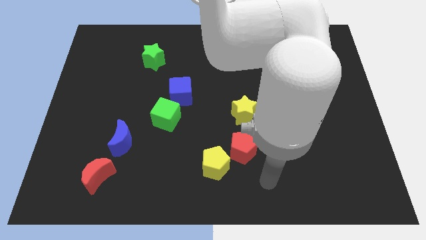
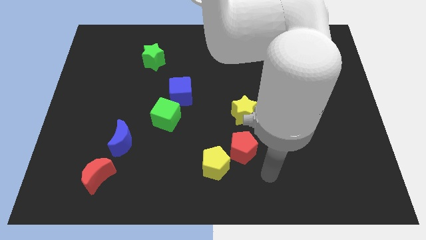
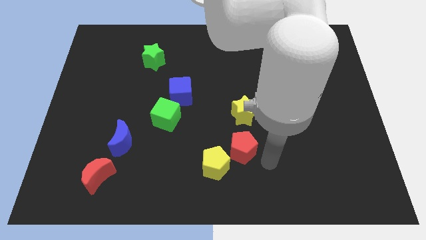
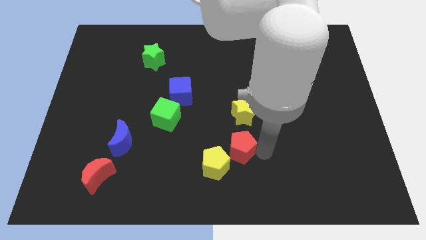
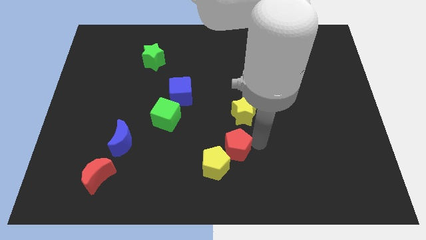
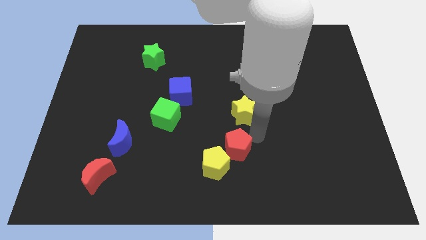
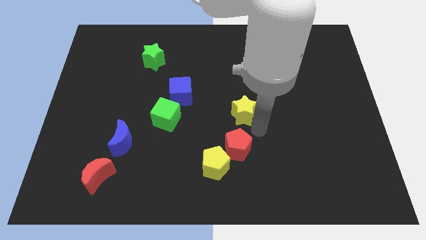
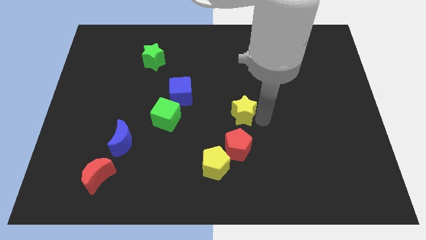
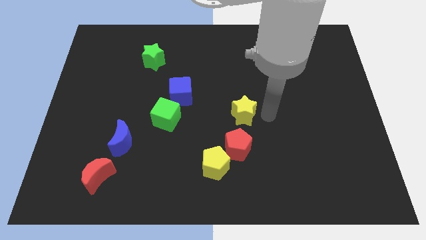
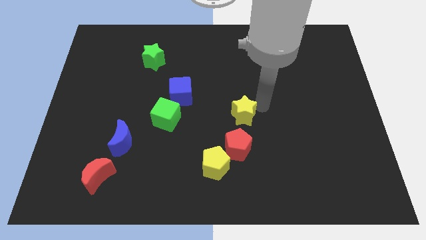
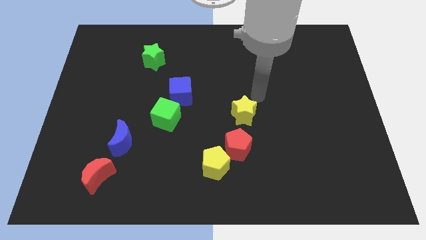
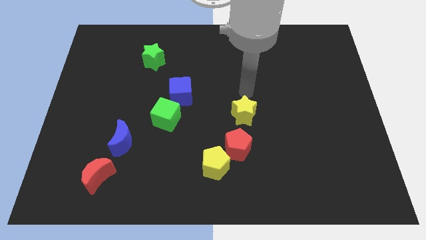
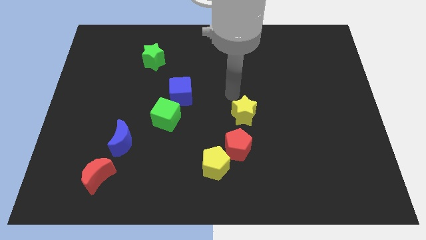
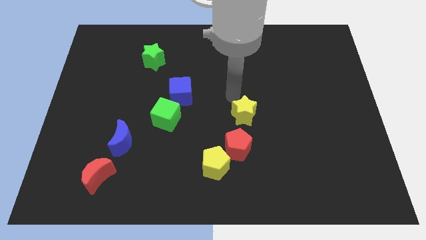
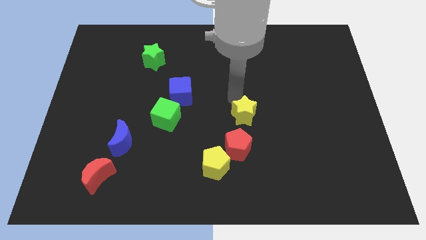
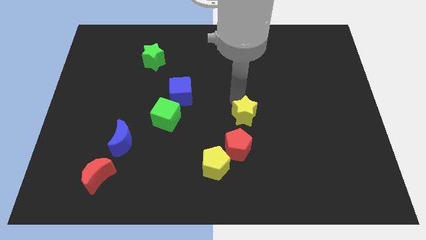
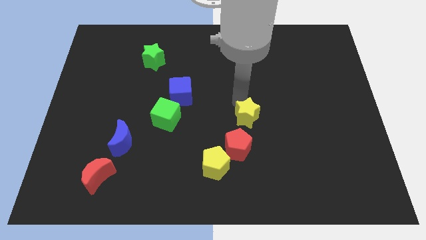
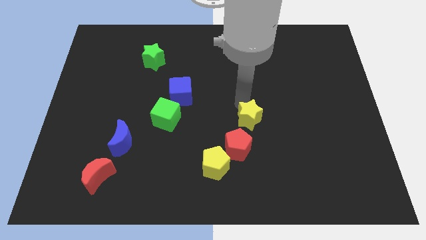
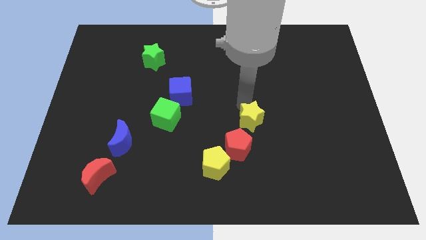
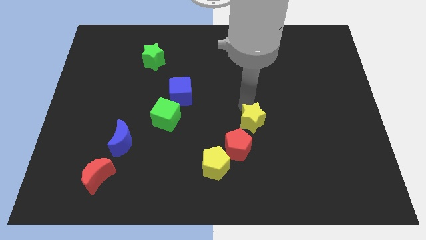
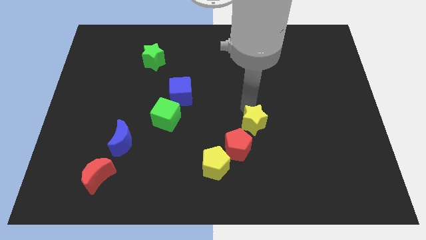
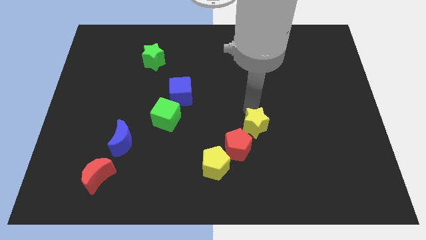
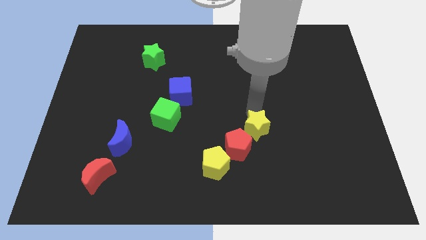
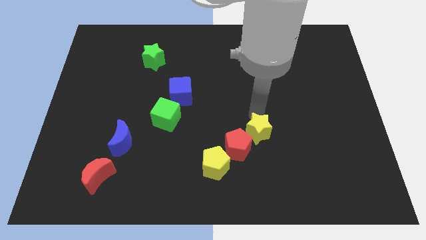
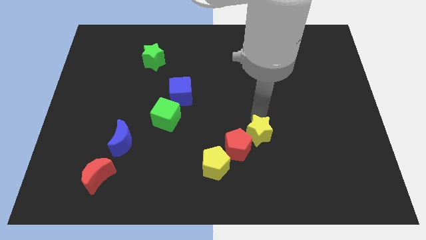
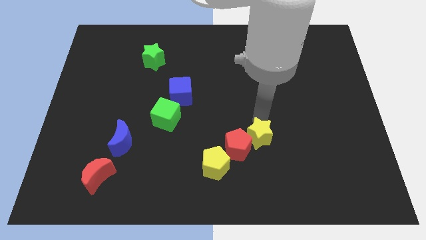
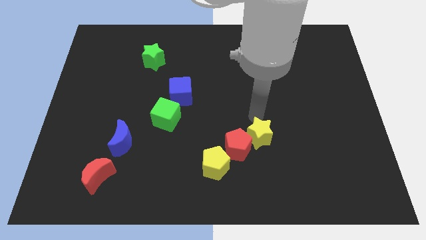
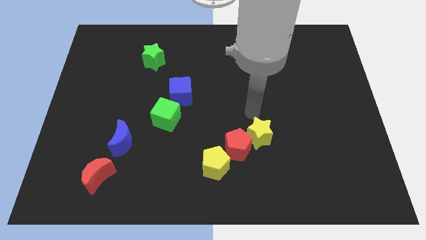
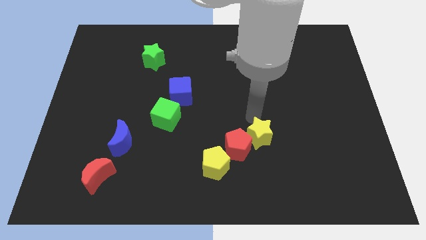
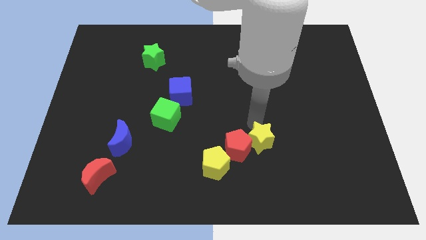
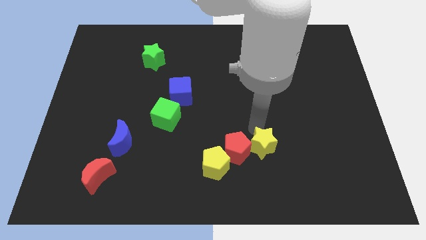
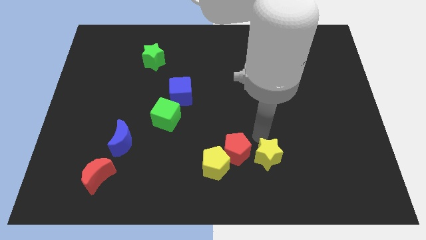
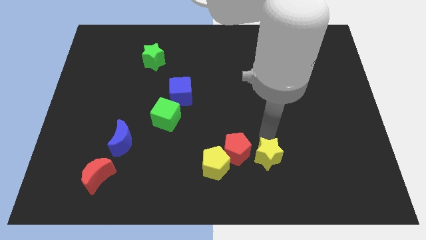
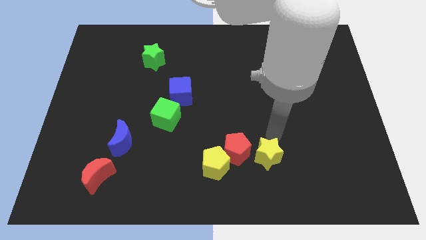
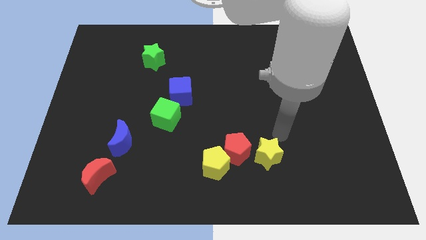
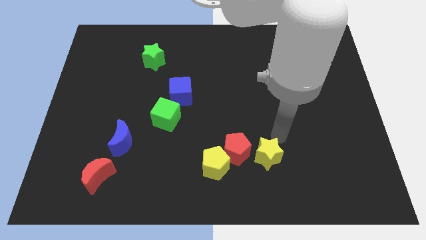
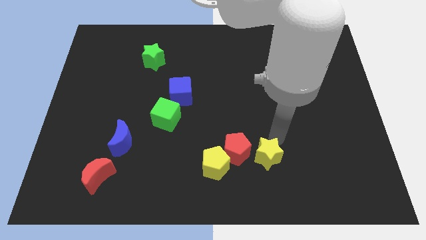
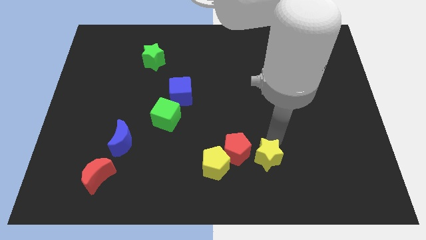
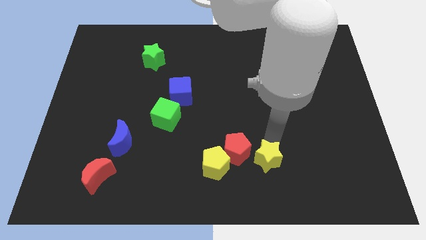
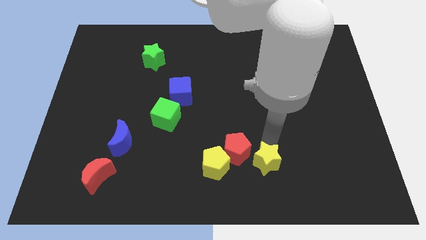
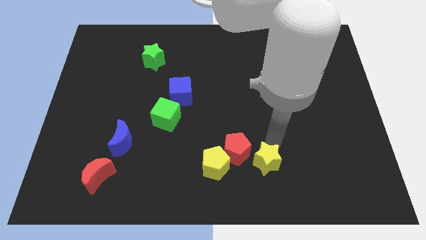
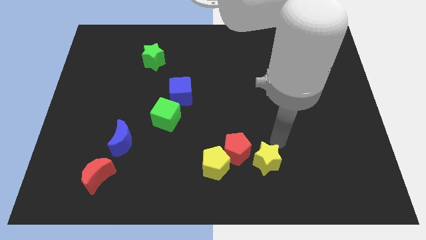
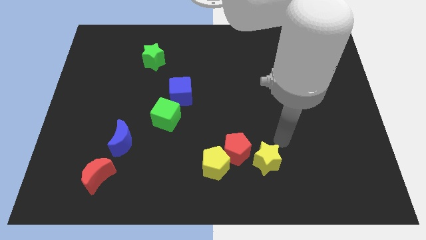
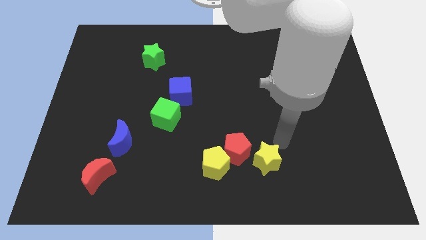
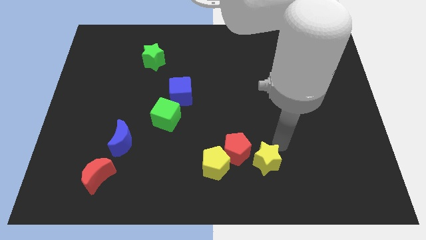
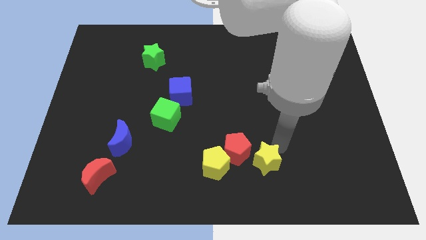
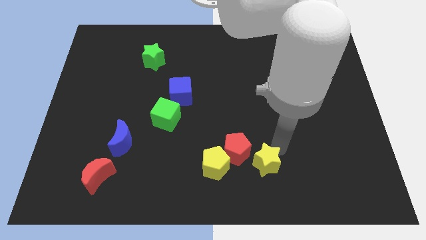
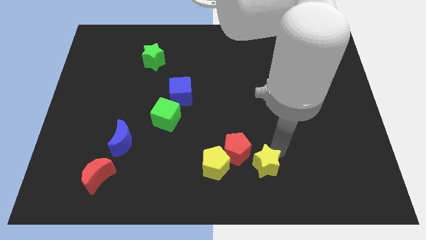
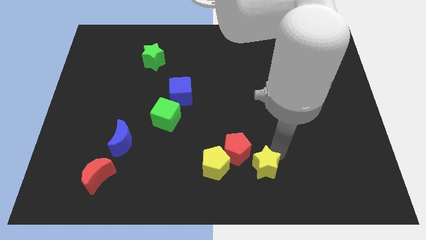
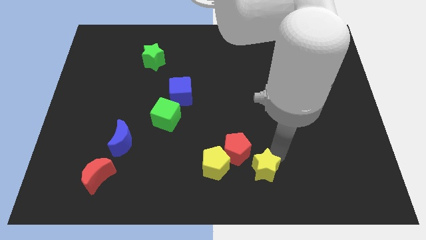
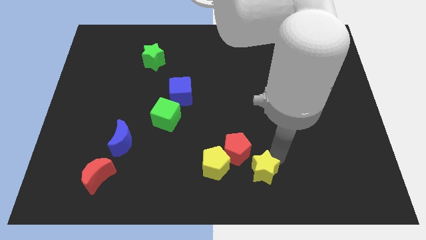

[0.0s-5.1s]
push the yellow star to the bottom

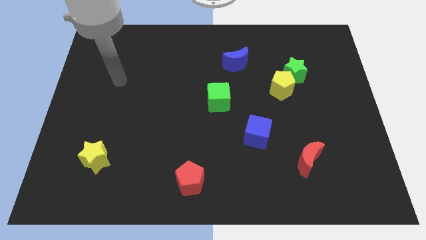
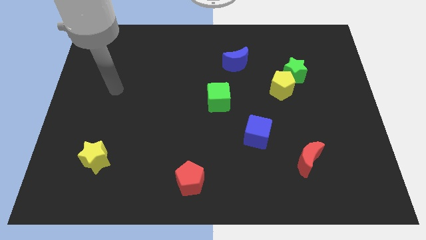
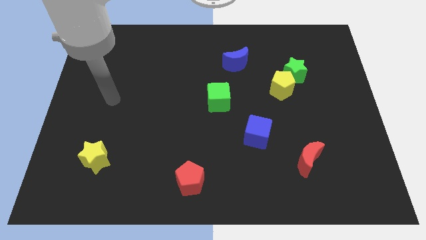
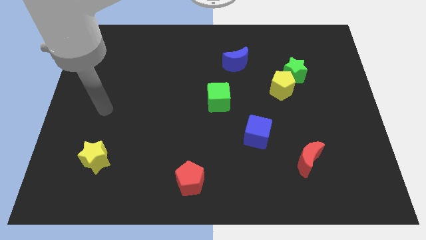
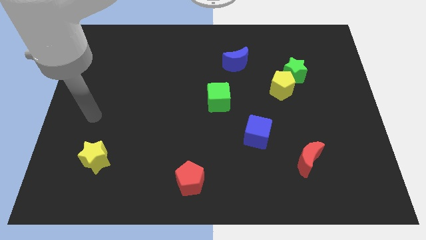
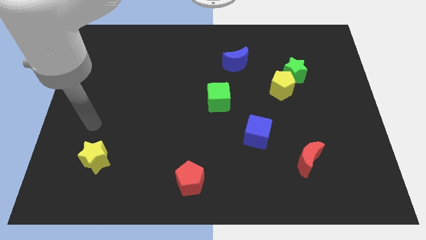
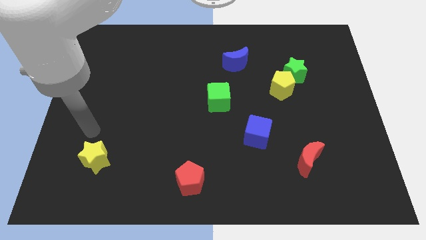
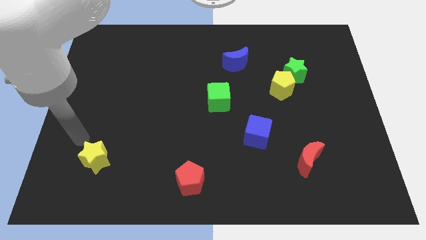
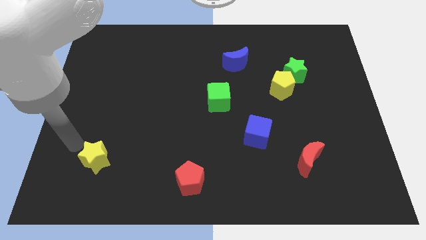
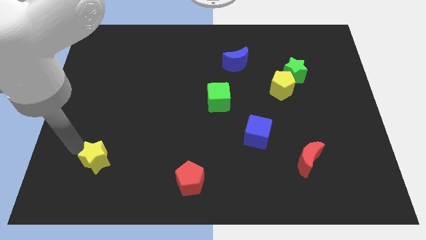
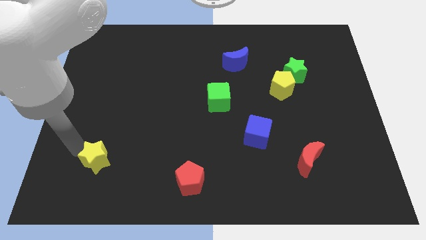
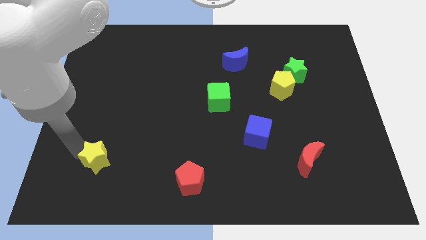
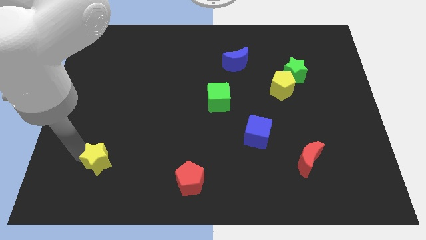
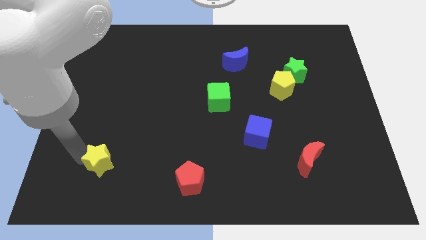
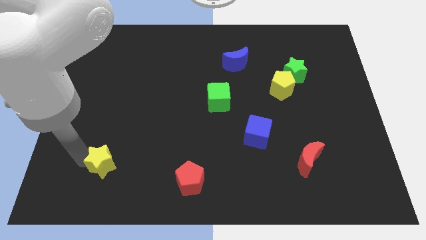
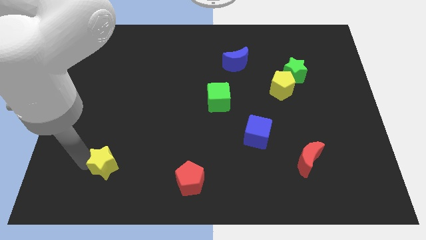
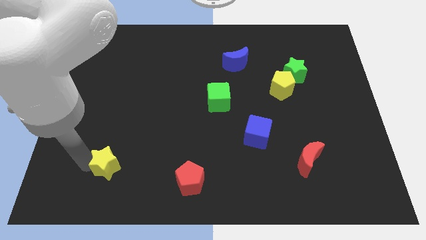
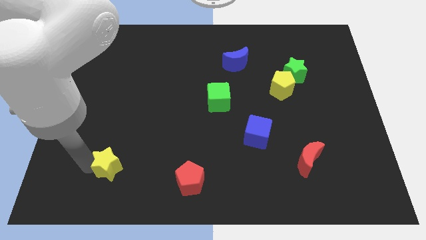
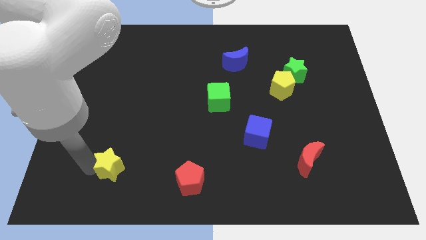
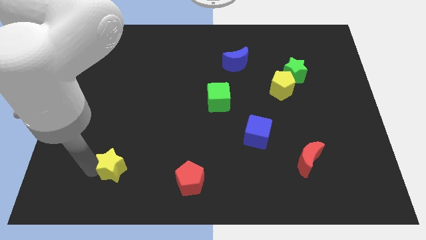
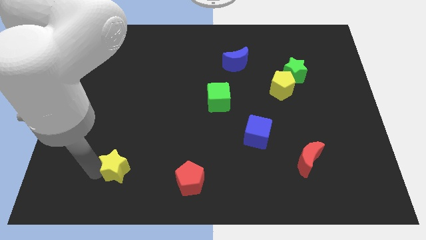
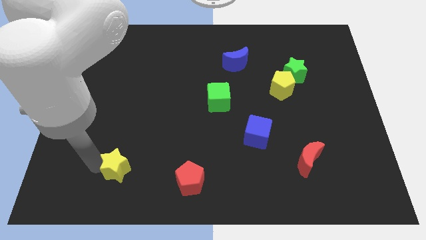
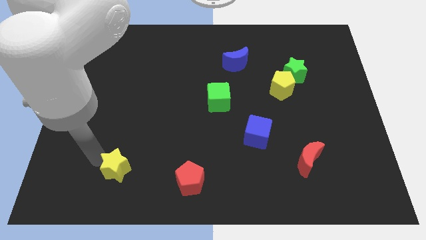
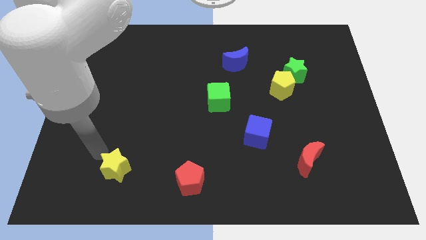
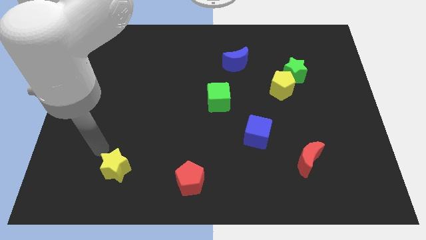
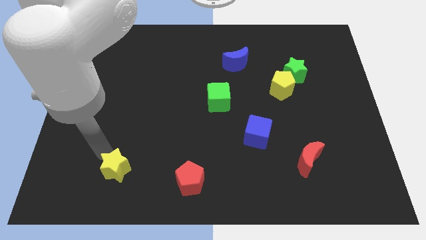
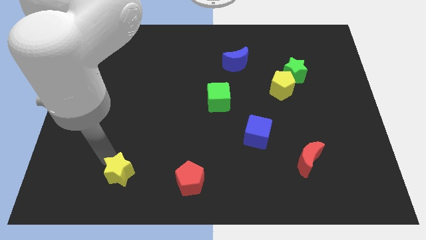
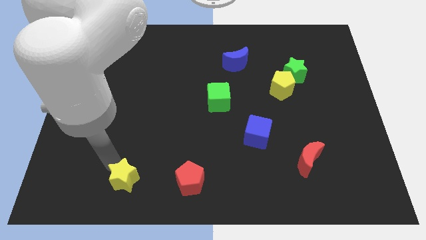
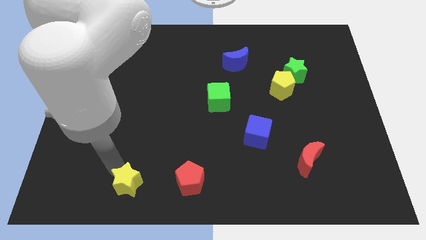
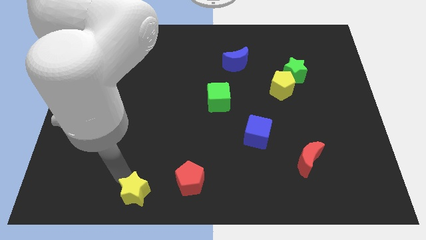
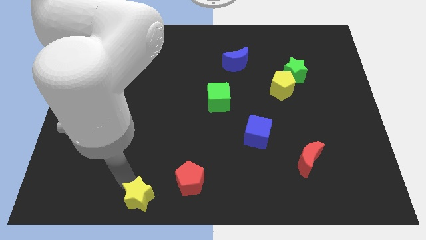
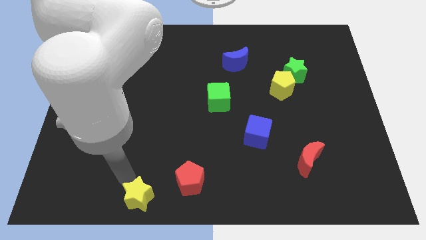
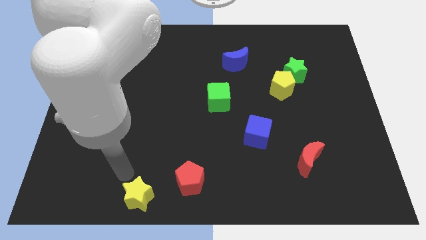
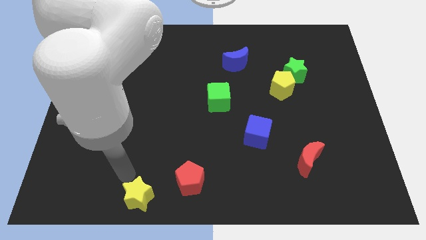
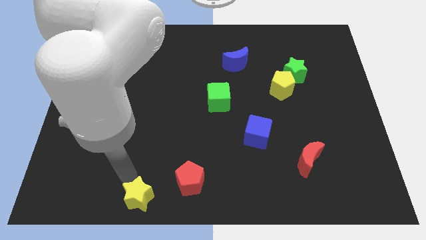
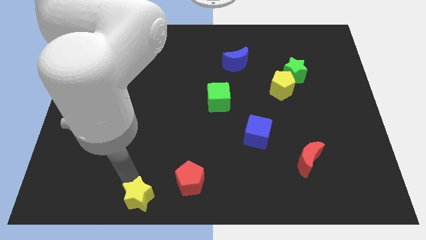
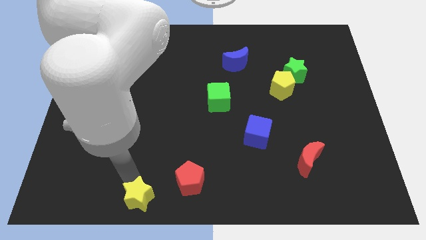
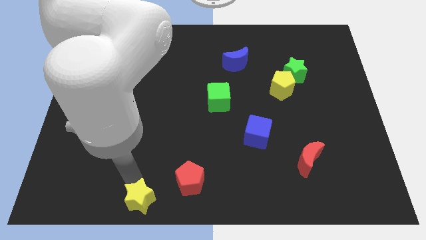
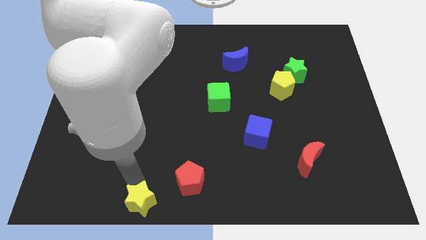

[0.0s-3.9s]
slide the yellow star to the bottom side
